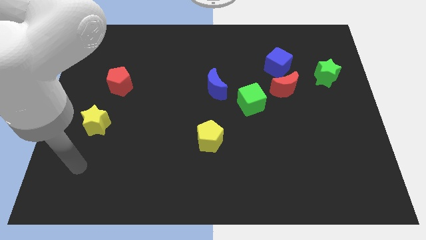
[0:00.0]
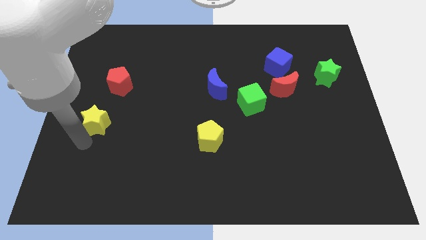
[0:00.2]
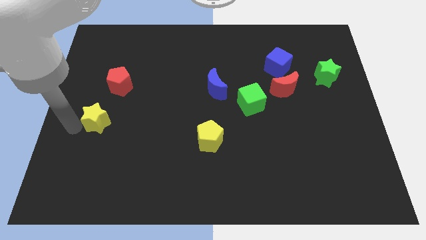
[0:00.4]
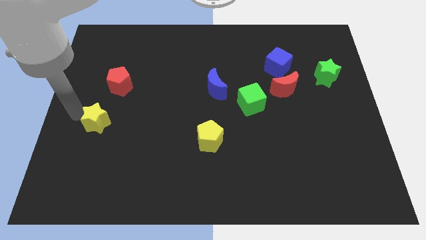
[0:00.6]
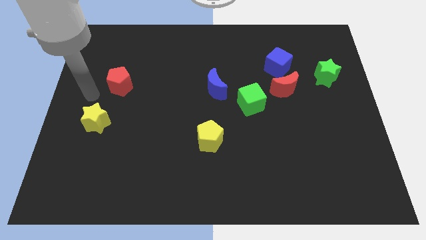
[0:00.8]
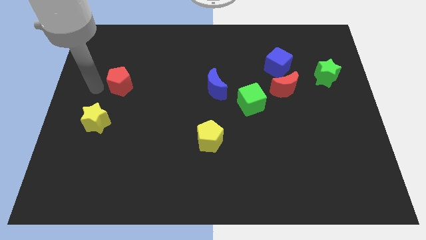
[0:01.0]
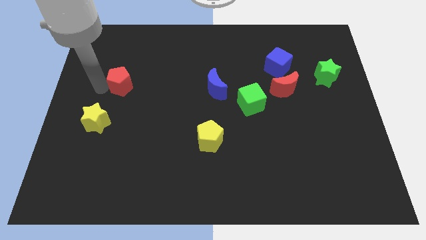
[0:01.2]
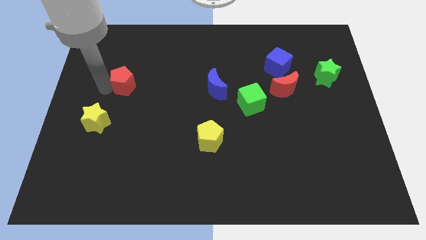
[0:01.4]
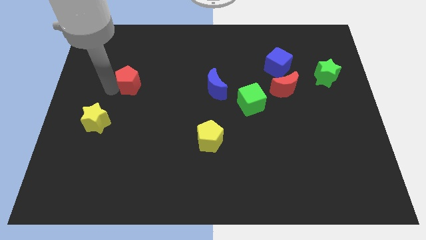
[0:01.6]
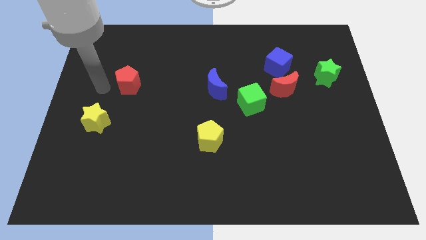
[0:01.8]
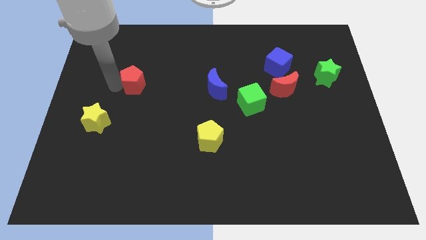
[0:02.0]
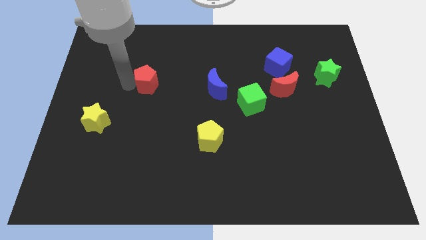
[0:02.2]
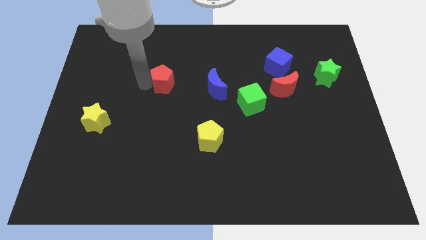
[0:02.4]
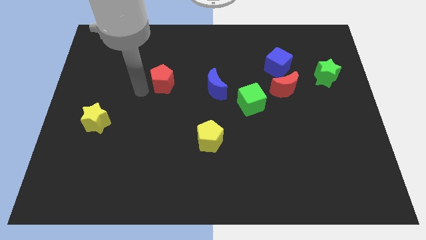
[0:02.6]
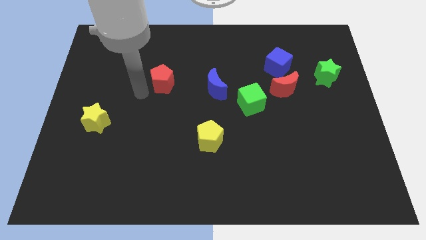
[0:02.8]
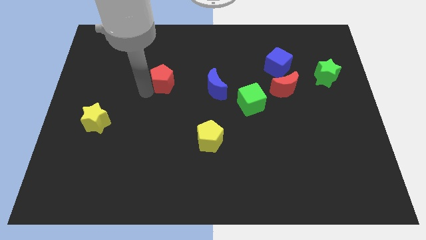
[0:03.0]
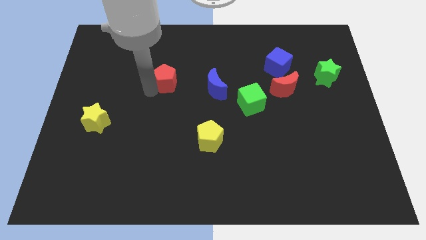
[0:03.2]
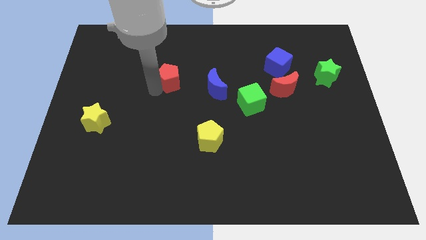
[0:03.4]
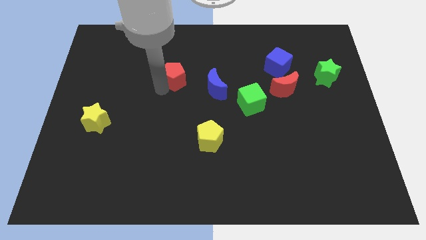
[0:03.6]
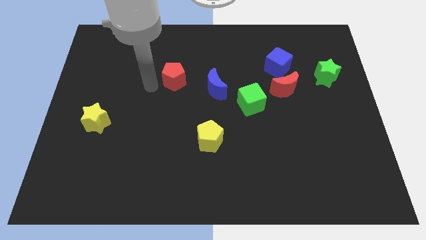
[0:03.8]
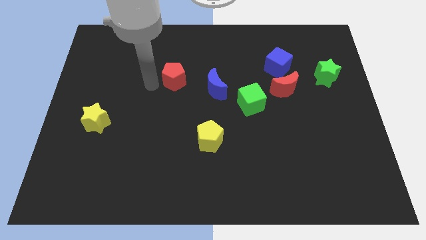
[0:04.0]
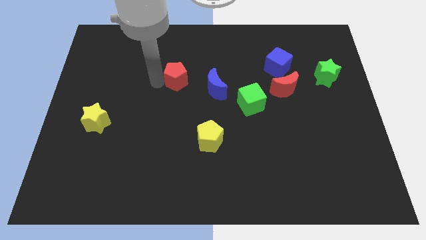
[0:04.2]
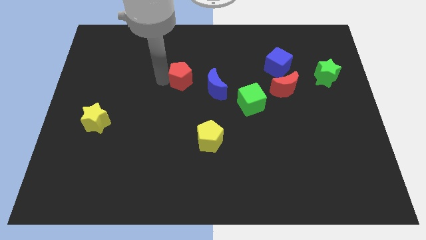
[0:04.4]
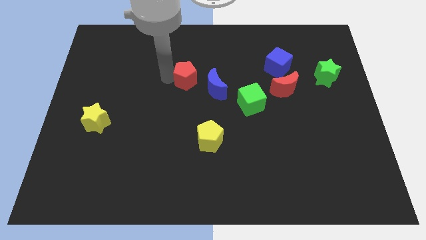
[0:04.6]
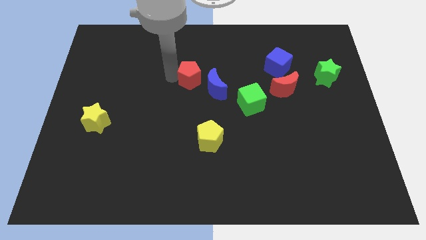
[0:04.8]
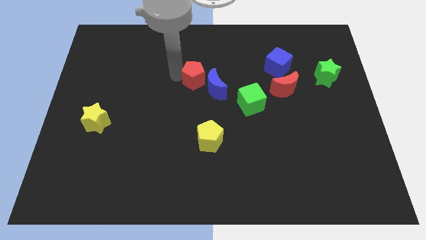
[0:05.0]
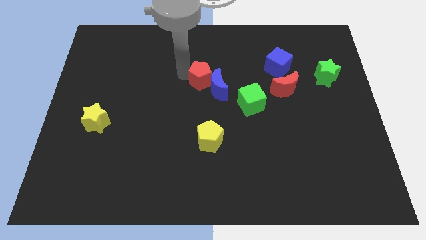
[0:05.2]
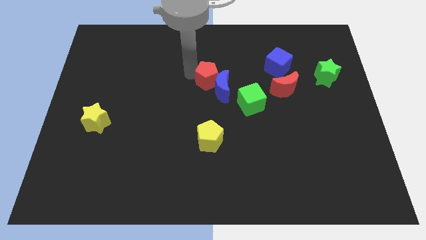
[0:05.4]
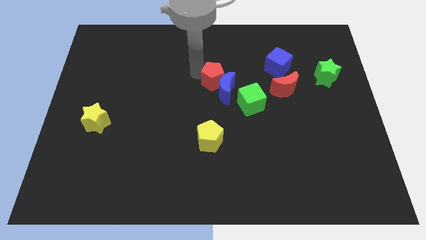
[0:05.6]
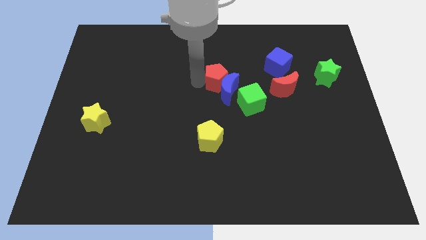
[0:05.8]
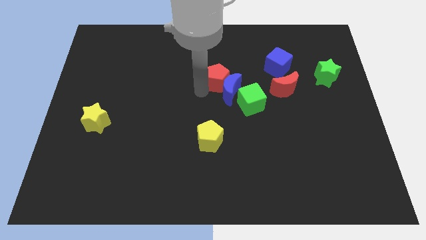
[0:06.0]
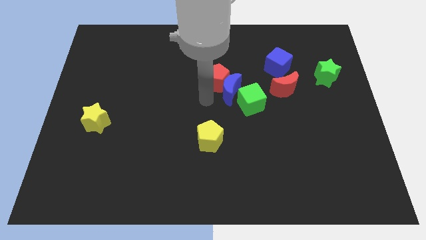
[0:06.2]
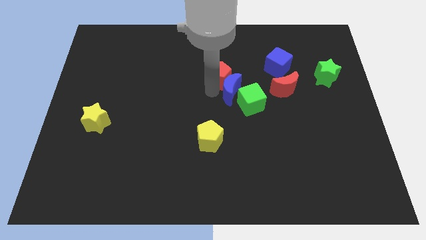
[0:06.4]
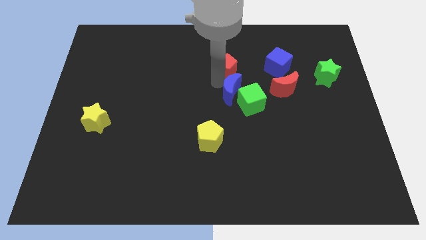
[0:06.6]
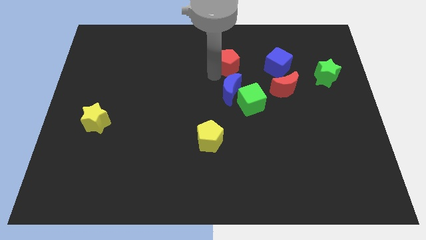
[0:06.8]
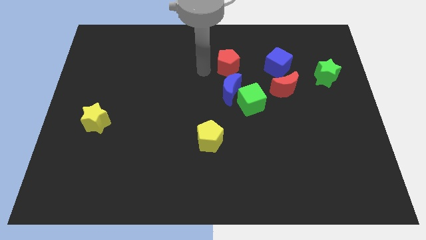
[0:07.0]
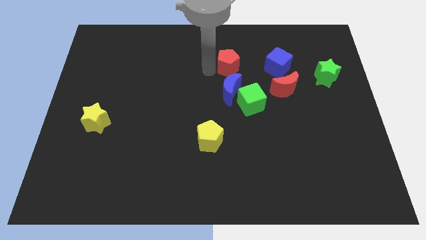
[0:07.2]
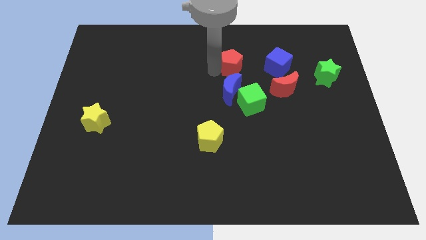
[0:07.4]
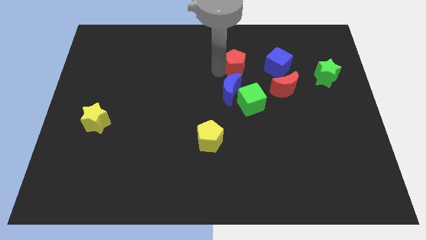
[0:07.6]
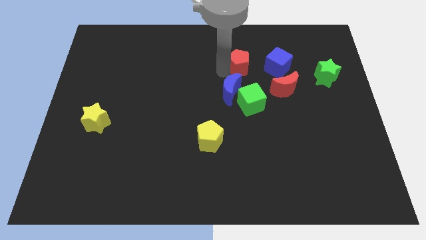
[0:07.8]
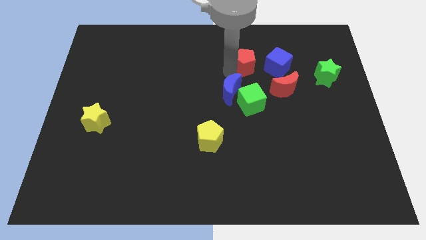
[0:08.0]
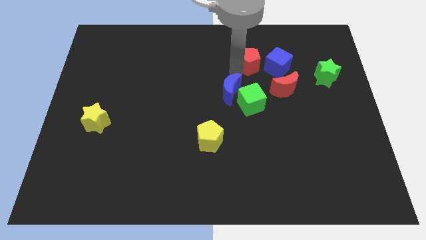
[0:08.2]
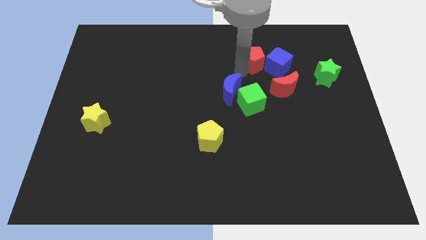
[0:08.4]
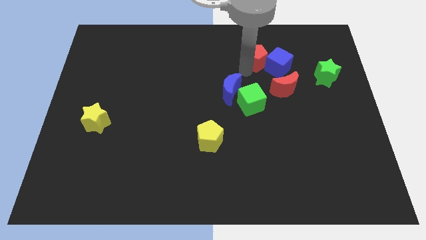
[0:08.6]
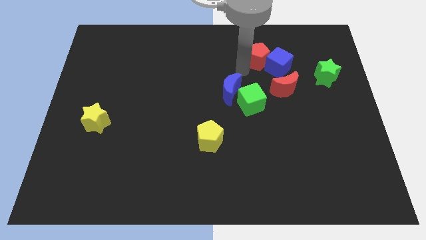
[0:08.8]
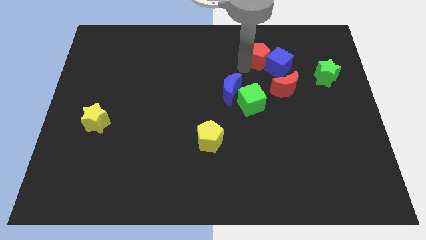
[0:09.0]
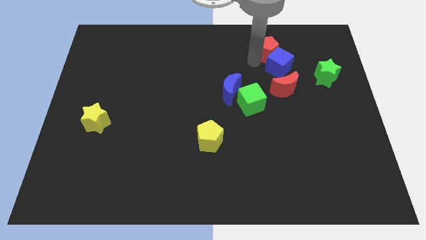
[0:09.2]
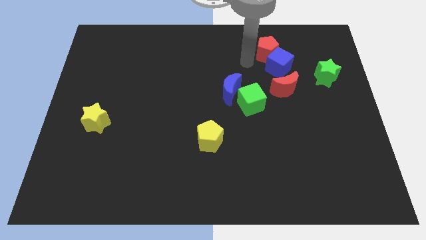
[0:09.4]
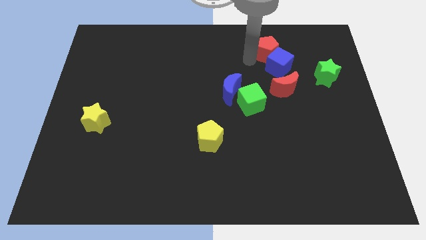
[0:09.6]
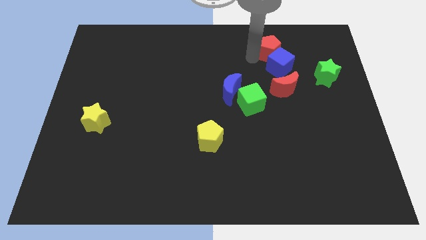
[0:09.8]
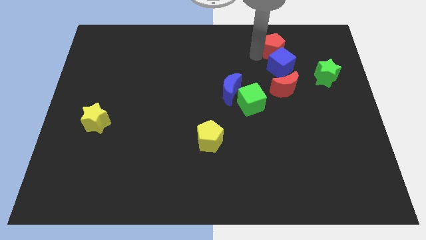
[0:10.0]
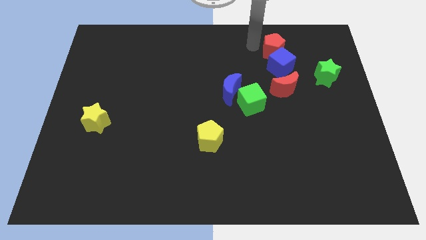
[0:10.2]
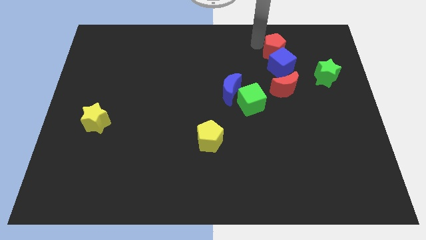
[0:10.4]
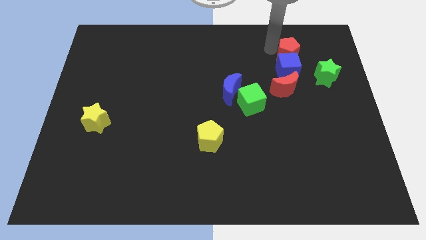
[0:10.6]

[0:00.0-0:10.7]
put the red pentagon to the top left side of the green star

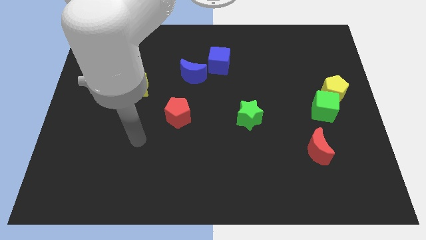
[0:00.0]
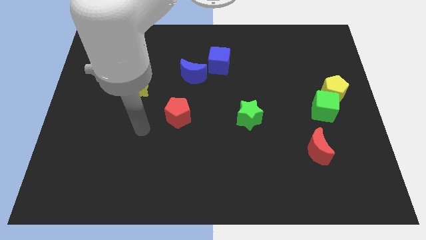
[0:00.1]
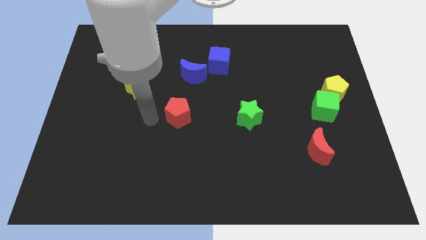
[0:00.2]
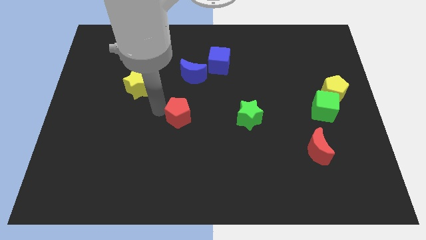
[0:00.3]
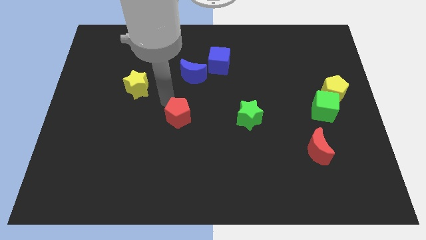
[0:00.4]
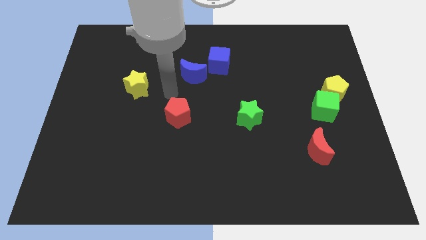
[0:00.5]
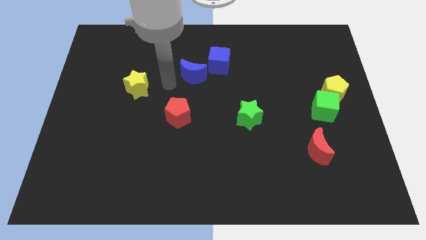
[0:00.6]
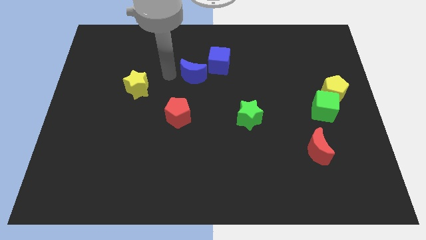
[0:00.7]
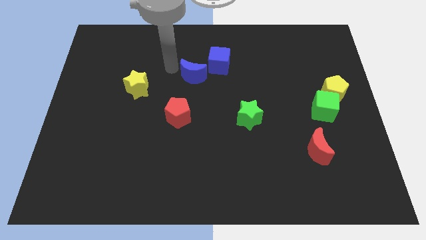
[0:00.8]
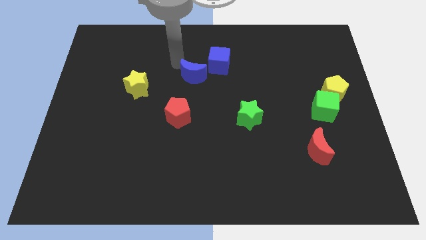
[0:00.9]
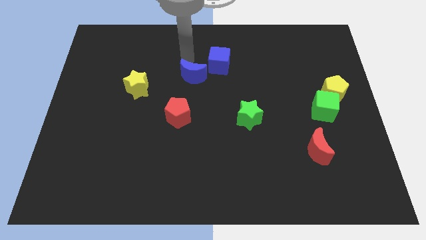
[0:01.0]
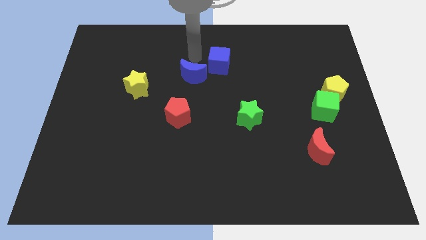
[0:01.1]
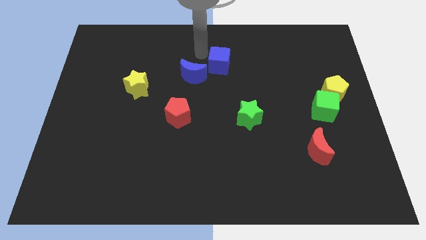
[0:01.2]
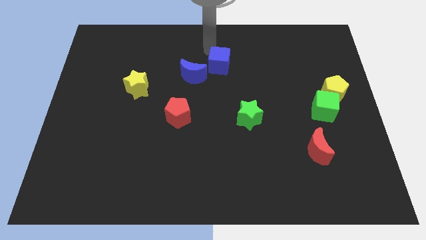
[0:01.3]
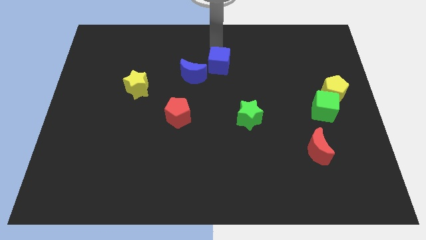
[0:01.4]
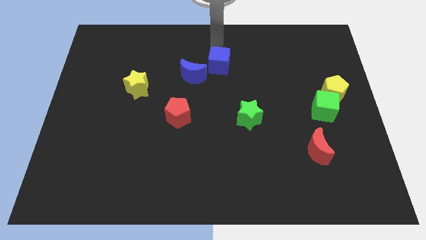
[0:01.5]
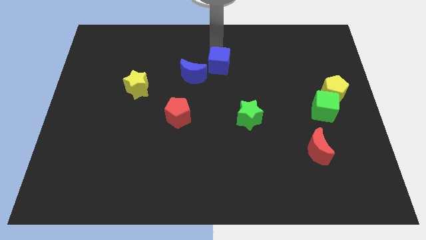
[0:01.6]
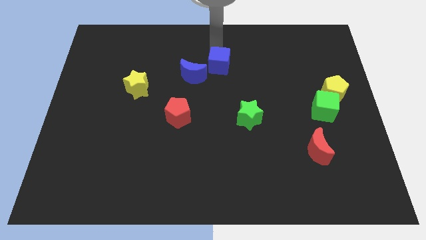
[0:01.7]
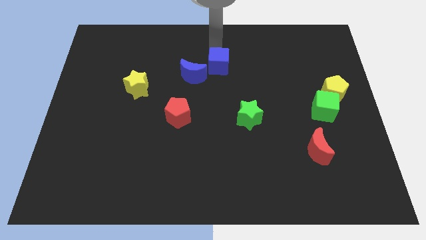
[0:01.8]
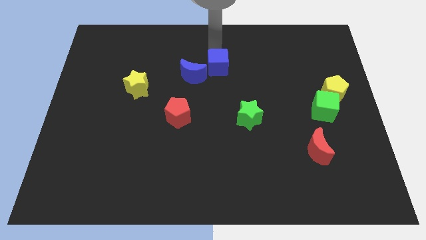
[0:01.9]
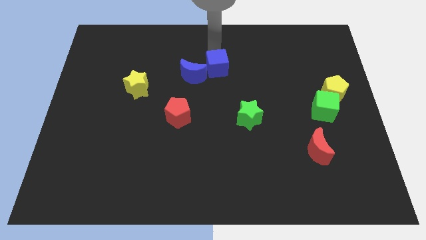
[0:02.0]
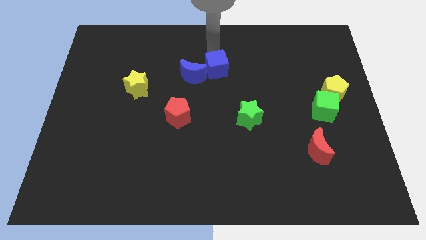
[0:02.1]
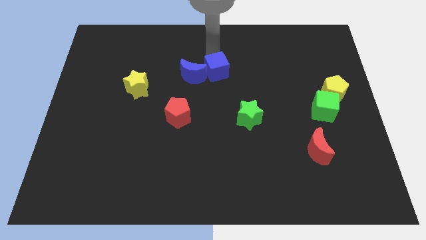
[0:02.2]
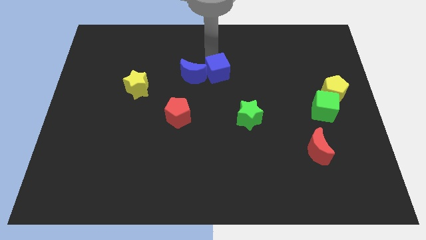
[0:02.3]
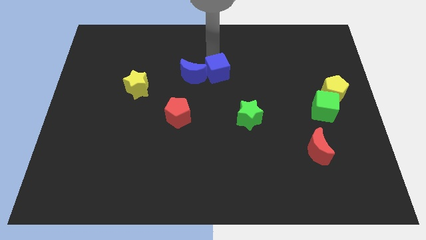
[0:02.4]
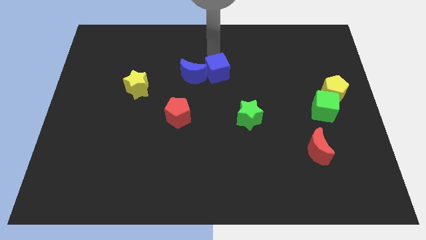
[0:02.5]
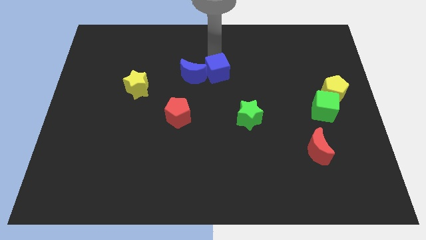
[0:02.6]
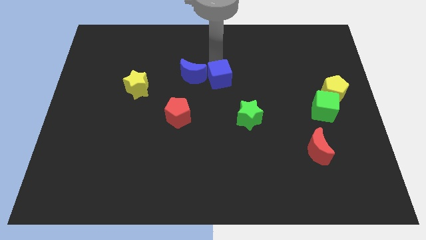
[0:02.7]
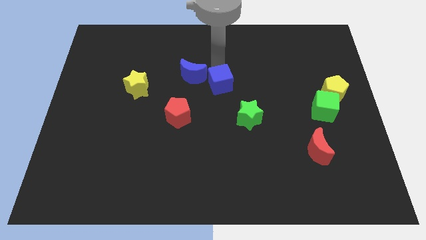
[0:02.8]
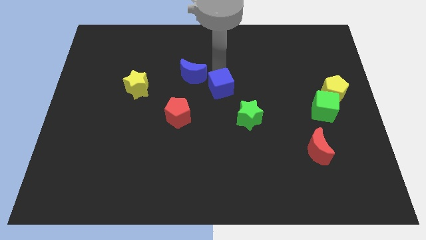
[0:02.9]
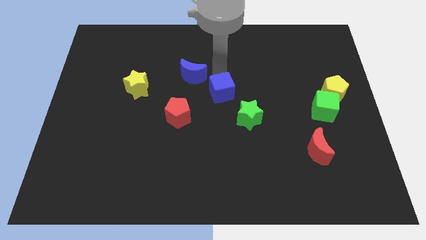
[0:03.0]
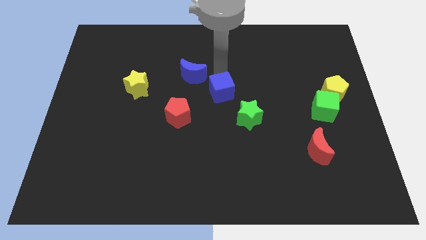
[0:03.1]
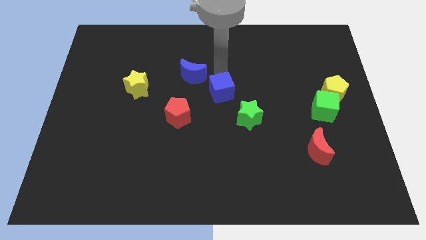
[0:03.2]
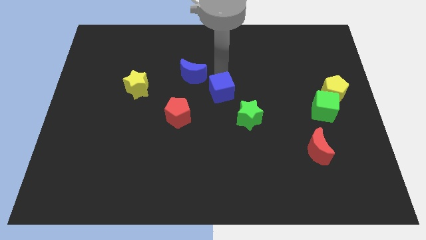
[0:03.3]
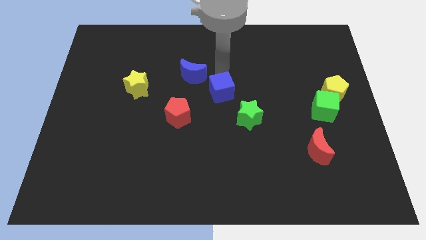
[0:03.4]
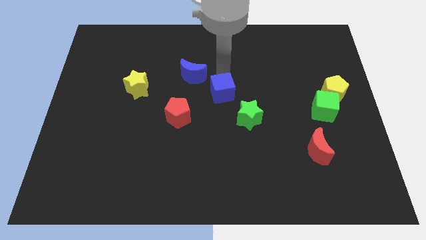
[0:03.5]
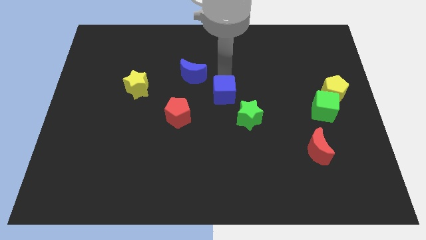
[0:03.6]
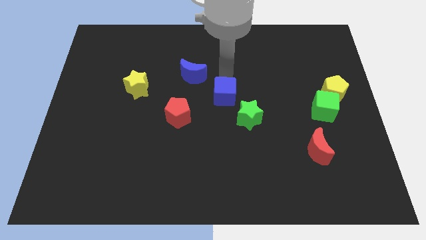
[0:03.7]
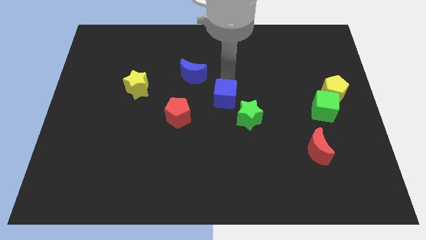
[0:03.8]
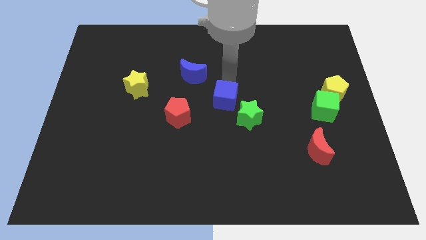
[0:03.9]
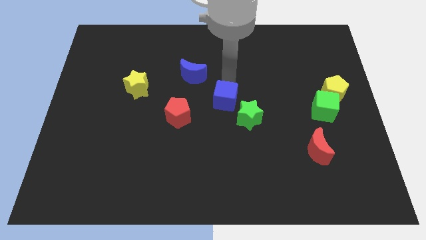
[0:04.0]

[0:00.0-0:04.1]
slide the blue cube right of the red pentagon
